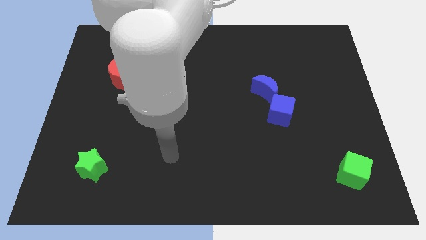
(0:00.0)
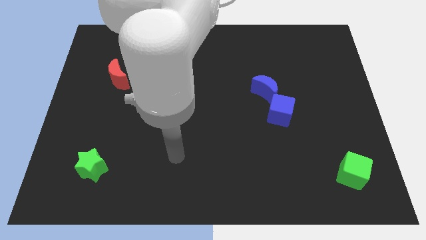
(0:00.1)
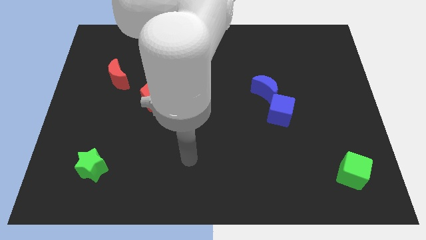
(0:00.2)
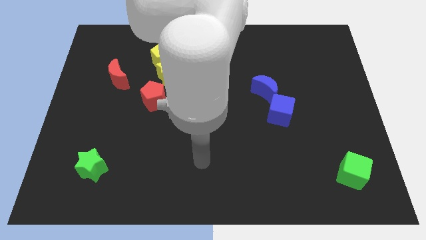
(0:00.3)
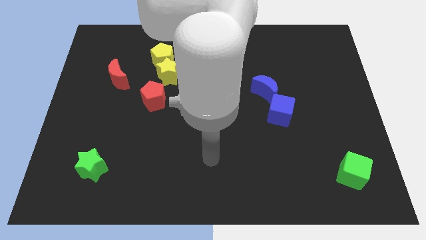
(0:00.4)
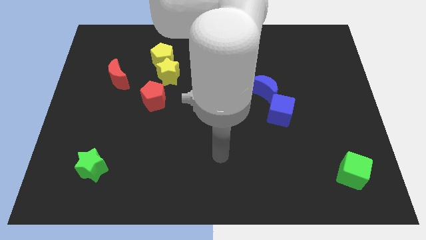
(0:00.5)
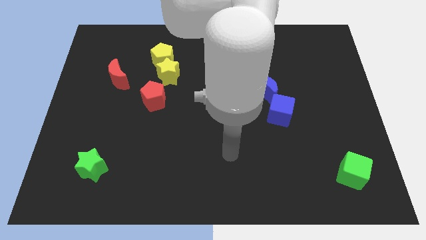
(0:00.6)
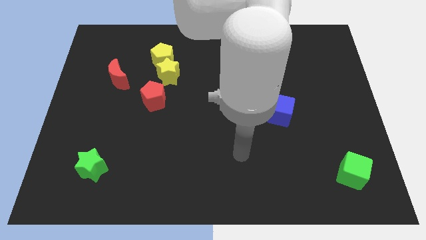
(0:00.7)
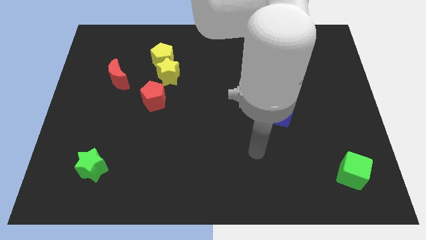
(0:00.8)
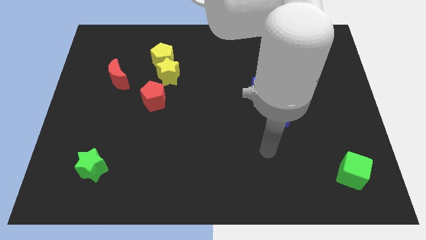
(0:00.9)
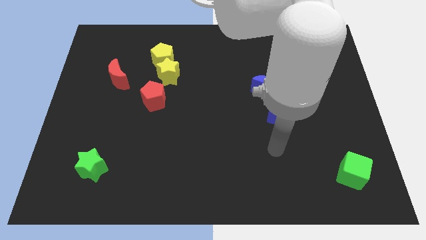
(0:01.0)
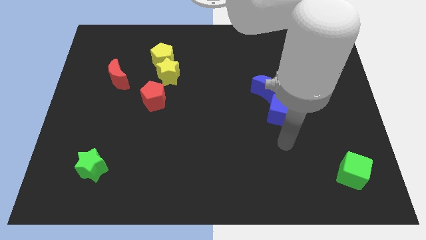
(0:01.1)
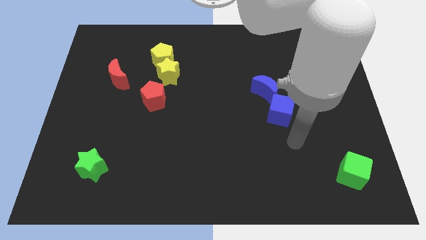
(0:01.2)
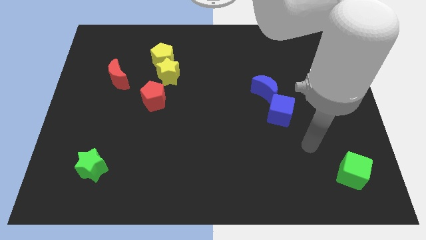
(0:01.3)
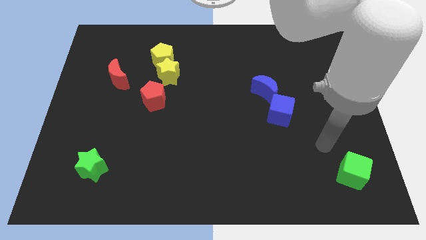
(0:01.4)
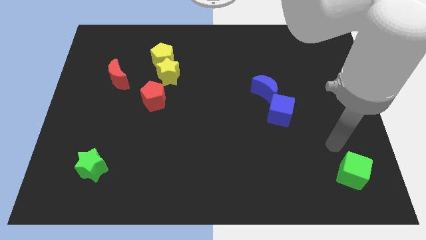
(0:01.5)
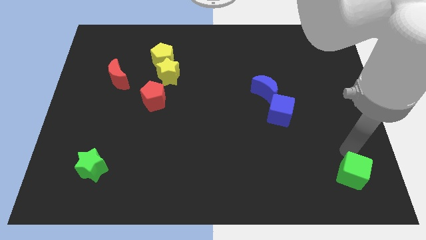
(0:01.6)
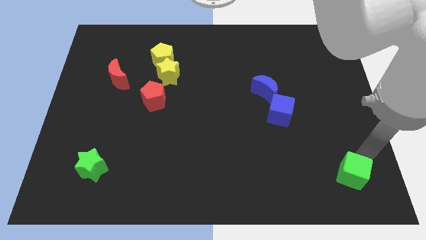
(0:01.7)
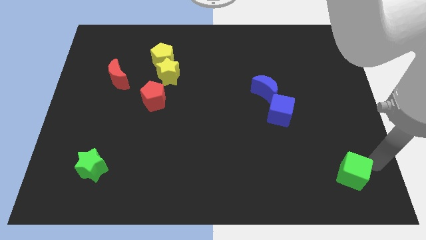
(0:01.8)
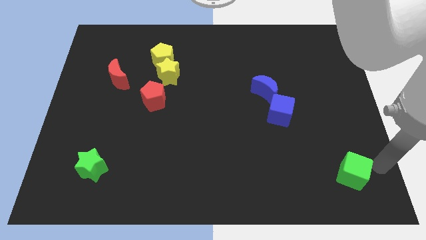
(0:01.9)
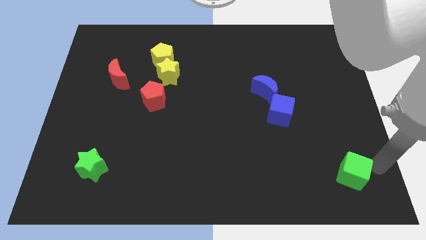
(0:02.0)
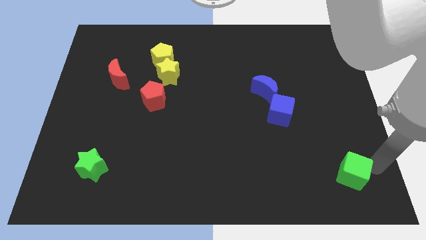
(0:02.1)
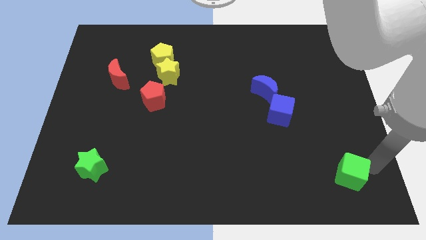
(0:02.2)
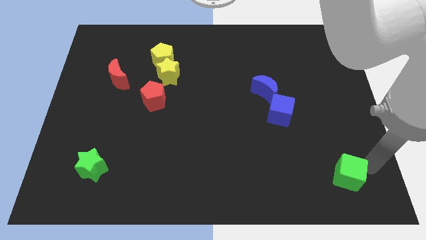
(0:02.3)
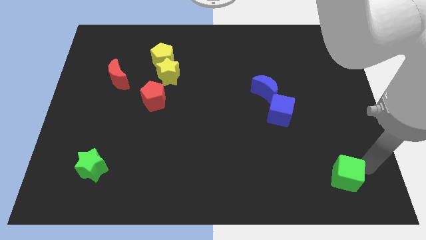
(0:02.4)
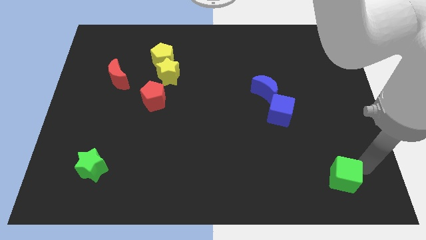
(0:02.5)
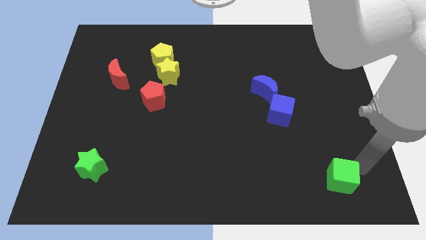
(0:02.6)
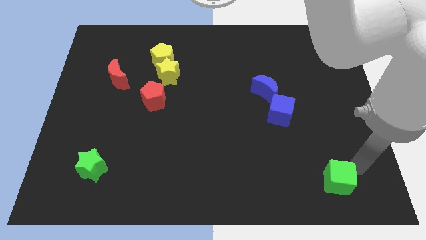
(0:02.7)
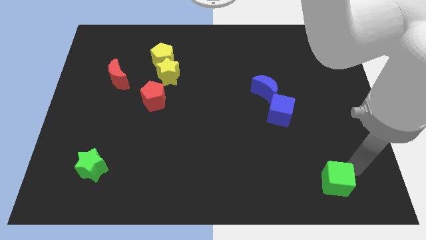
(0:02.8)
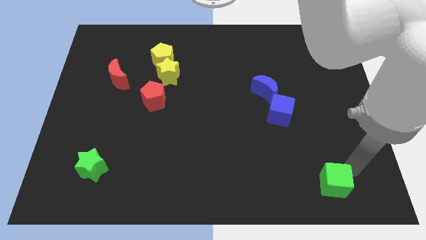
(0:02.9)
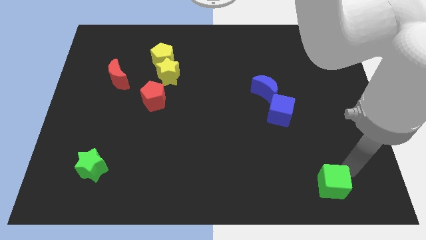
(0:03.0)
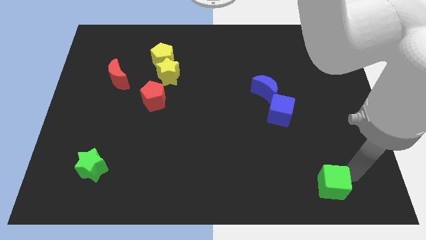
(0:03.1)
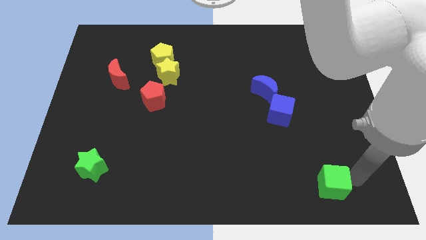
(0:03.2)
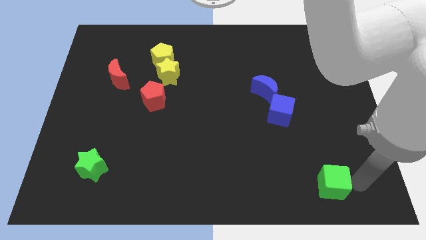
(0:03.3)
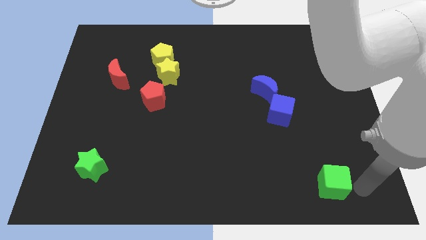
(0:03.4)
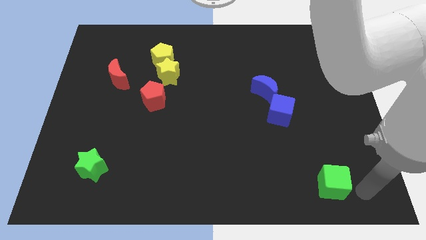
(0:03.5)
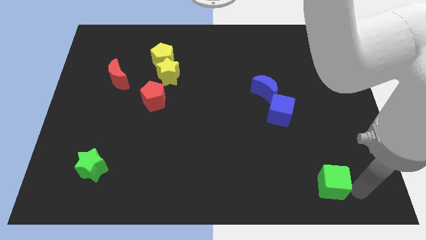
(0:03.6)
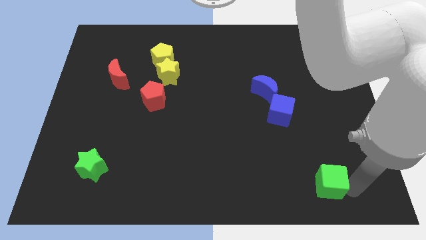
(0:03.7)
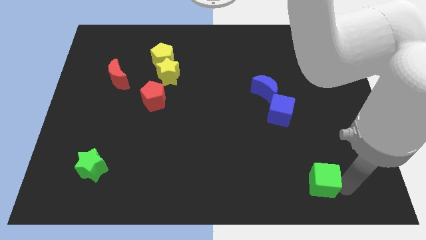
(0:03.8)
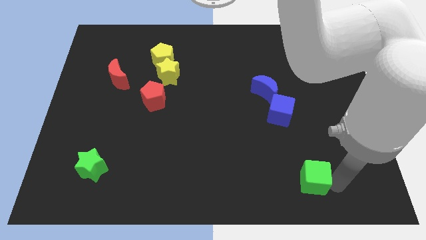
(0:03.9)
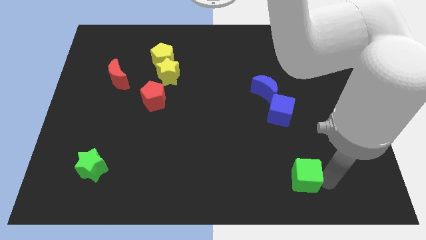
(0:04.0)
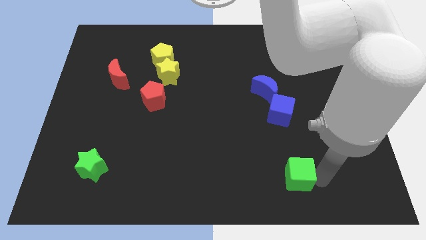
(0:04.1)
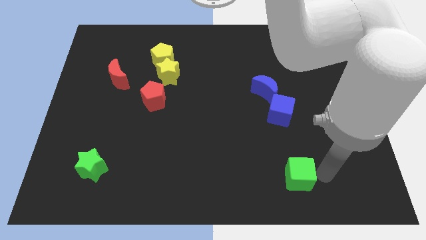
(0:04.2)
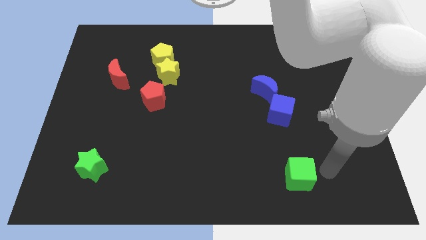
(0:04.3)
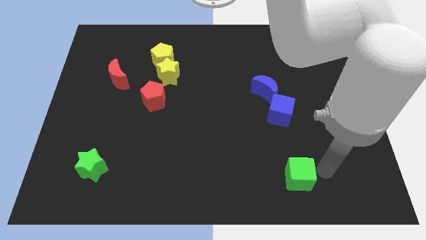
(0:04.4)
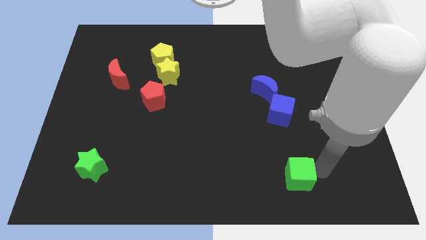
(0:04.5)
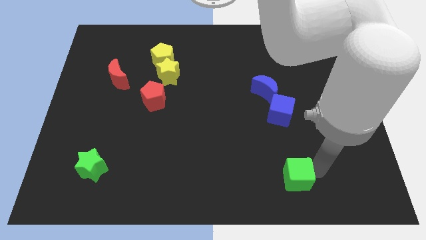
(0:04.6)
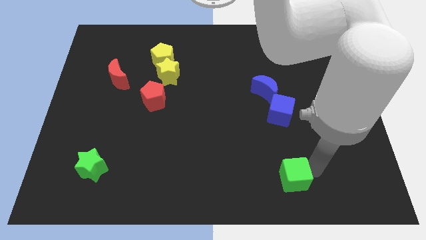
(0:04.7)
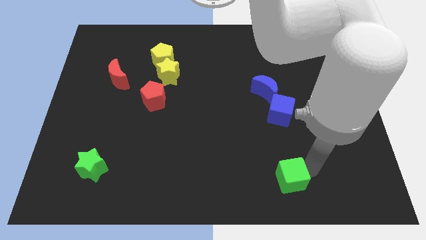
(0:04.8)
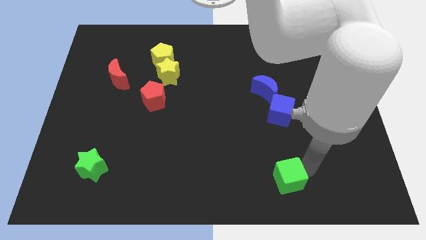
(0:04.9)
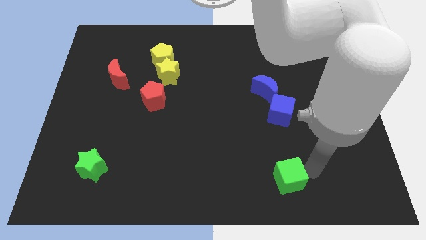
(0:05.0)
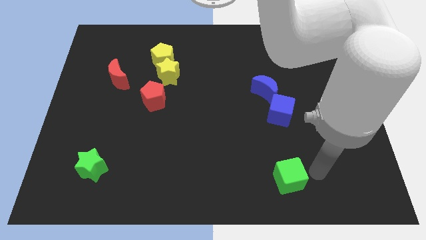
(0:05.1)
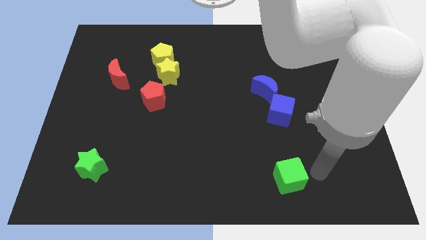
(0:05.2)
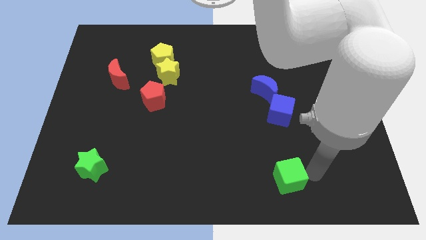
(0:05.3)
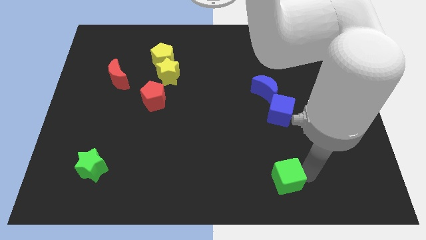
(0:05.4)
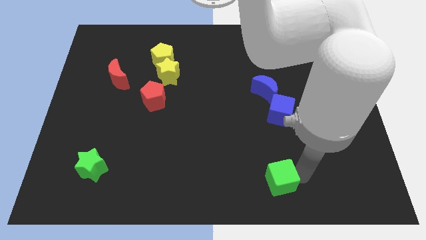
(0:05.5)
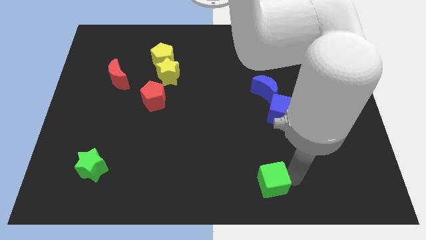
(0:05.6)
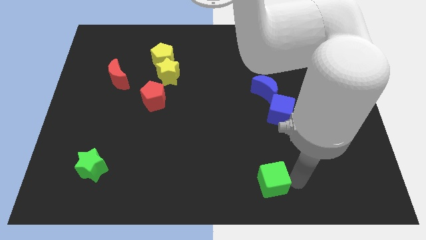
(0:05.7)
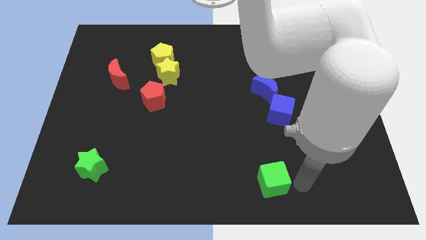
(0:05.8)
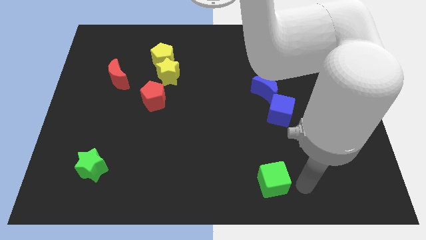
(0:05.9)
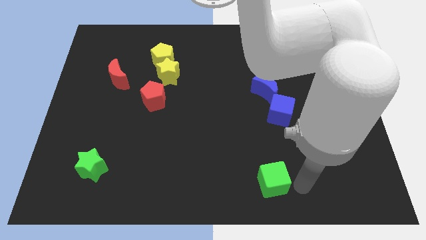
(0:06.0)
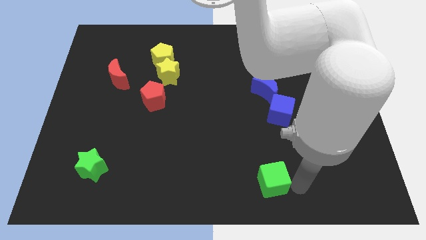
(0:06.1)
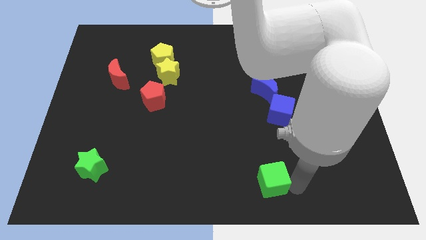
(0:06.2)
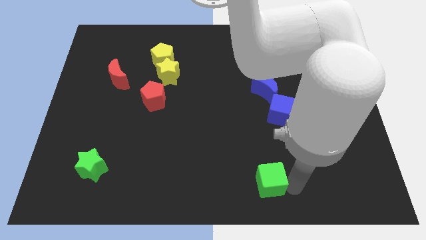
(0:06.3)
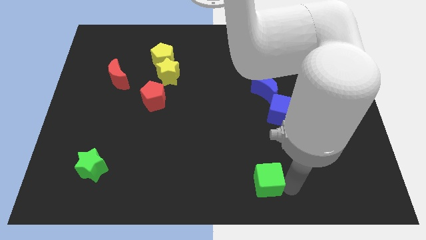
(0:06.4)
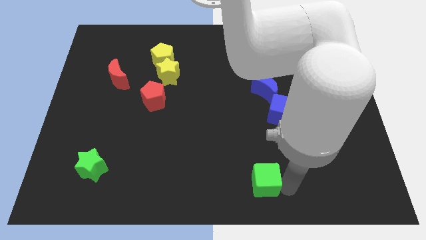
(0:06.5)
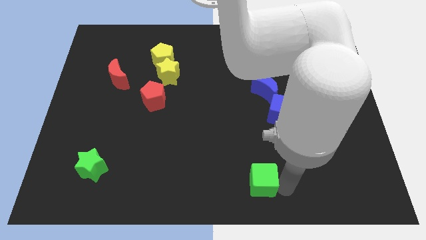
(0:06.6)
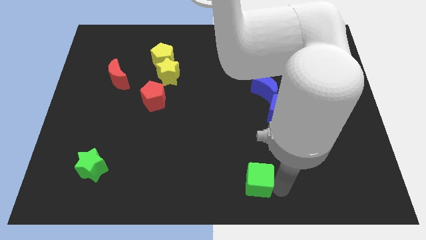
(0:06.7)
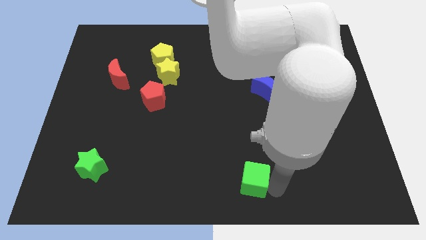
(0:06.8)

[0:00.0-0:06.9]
slide the green cube to the left

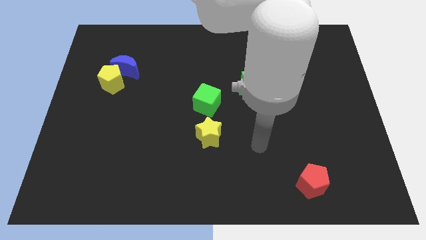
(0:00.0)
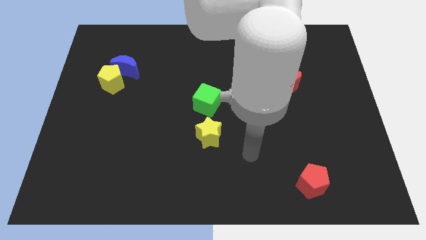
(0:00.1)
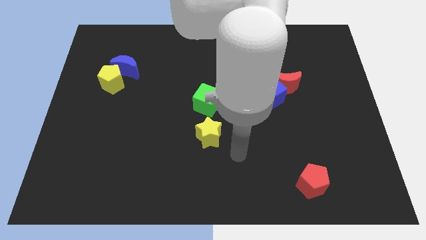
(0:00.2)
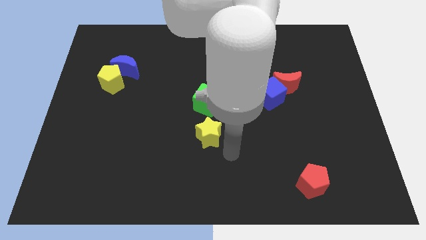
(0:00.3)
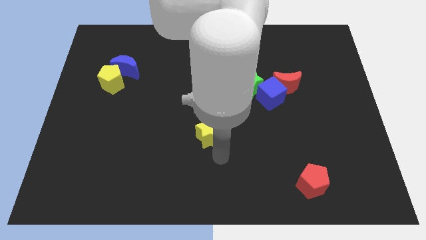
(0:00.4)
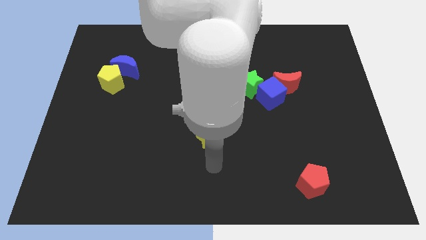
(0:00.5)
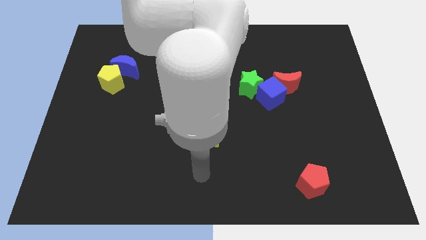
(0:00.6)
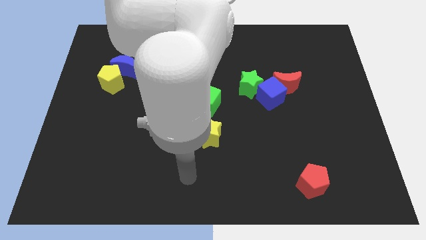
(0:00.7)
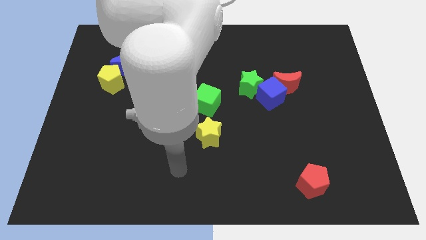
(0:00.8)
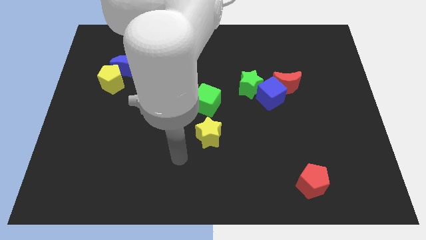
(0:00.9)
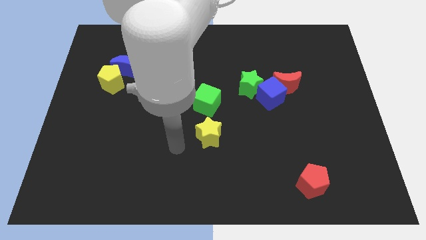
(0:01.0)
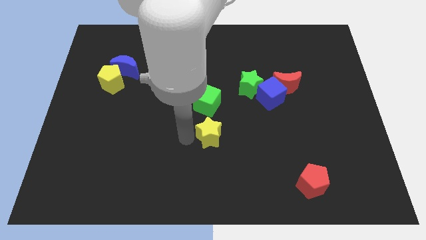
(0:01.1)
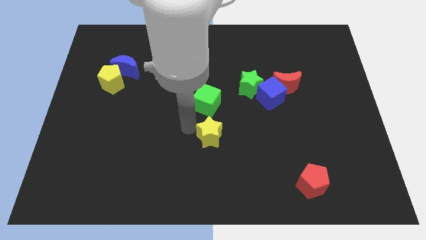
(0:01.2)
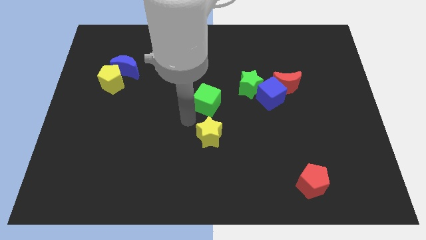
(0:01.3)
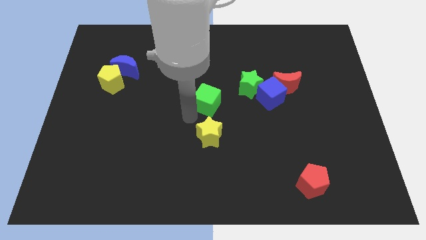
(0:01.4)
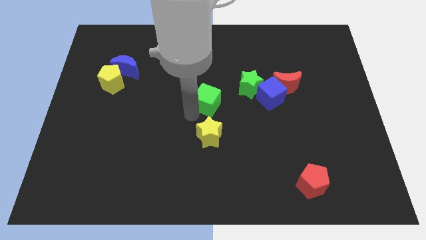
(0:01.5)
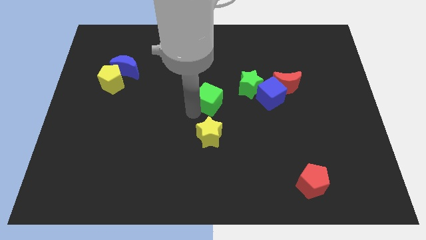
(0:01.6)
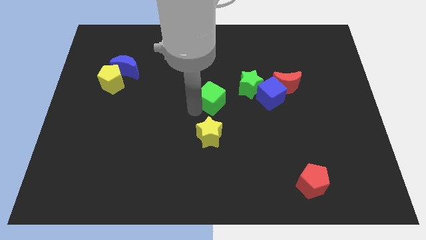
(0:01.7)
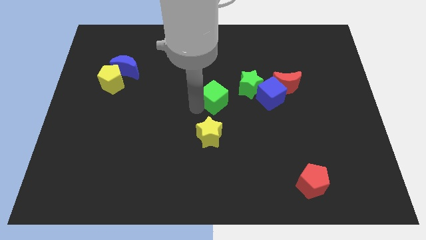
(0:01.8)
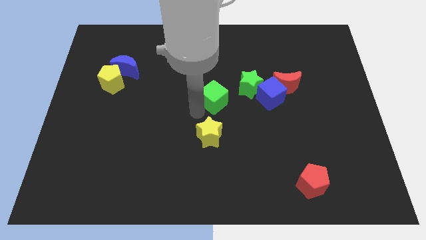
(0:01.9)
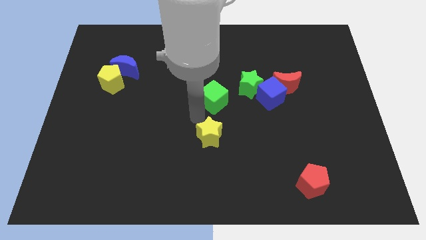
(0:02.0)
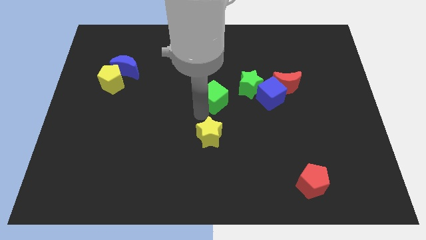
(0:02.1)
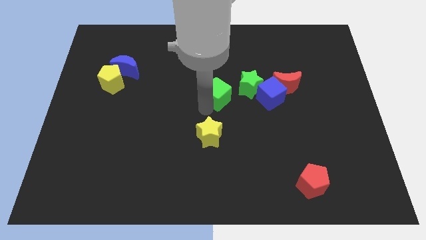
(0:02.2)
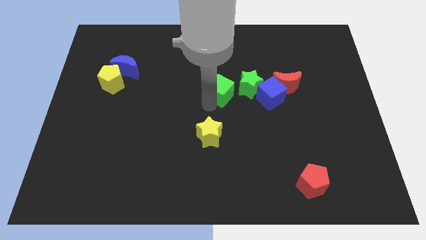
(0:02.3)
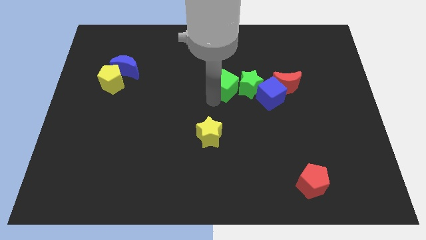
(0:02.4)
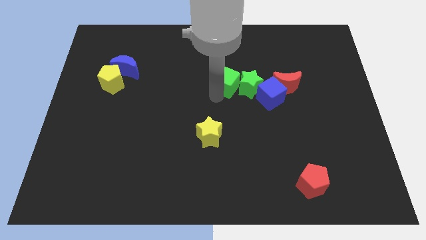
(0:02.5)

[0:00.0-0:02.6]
slightly push the green cube up and to the right
